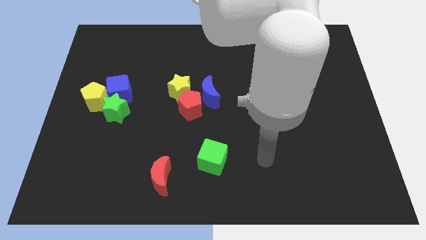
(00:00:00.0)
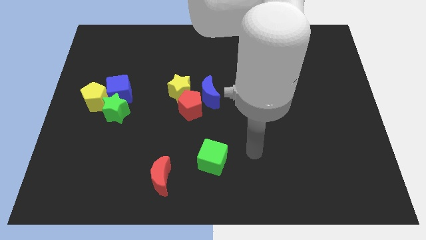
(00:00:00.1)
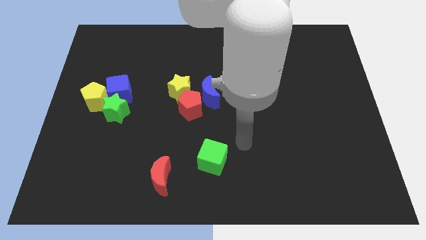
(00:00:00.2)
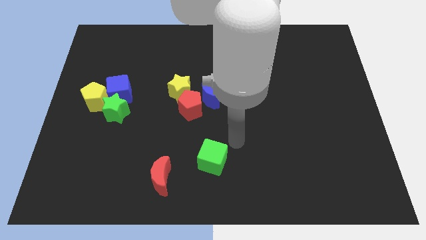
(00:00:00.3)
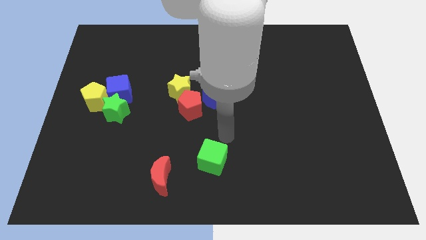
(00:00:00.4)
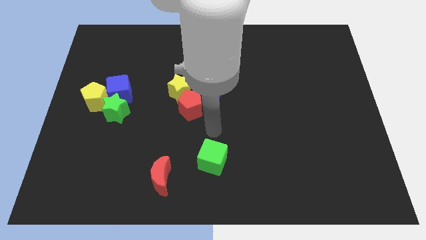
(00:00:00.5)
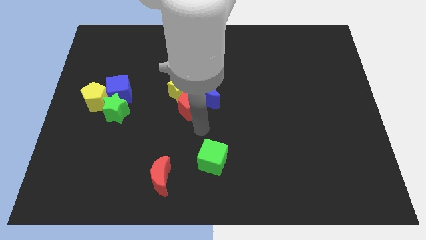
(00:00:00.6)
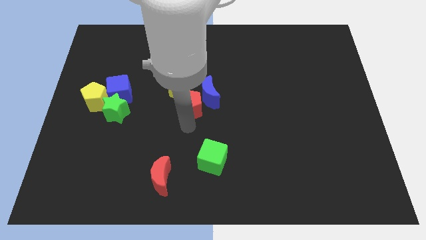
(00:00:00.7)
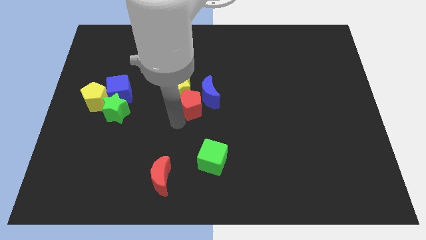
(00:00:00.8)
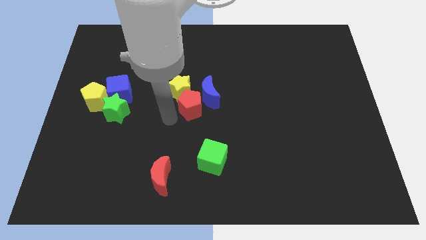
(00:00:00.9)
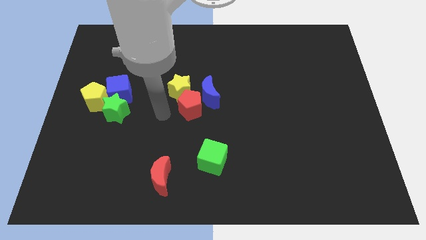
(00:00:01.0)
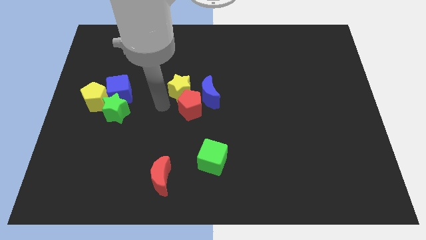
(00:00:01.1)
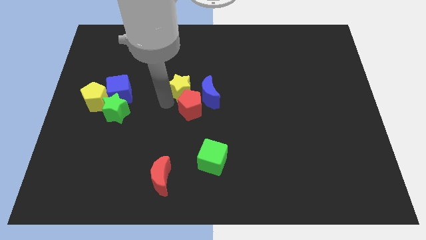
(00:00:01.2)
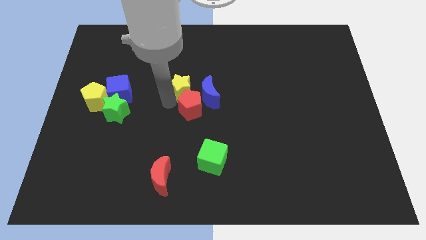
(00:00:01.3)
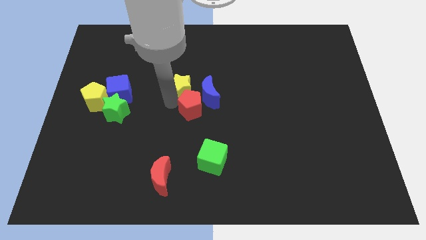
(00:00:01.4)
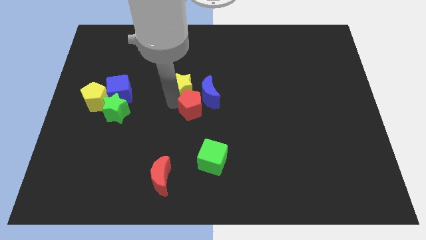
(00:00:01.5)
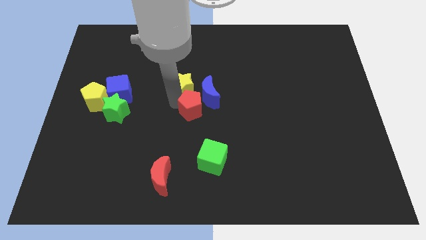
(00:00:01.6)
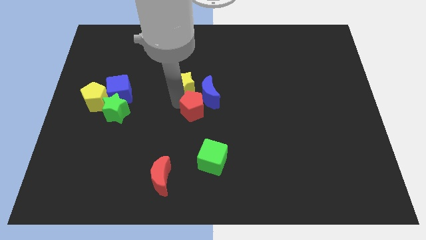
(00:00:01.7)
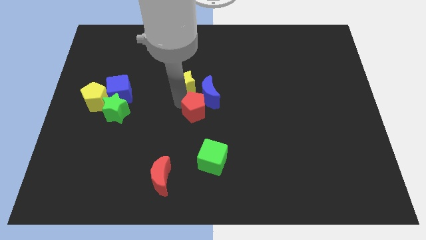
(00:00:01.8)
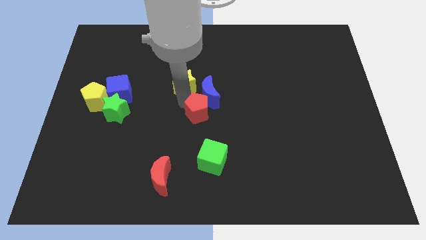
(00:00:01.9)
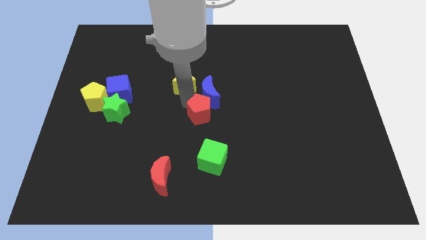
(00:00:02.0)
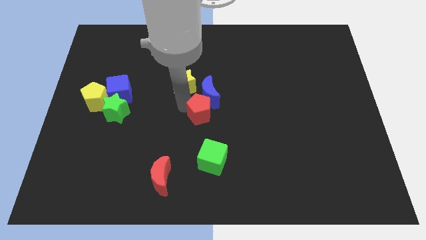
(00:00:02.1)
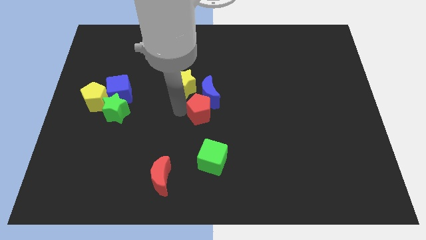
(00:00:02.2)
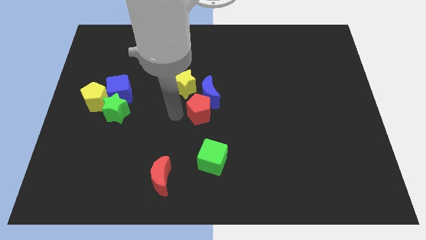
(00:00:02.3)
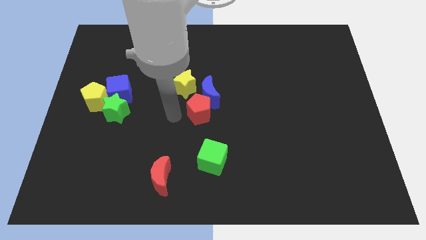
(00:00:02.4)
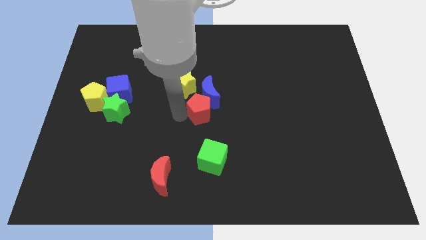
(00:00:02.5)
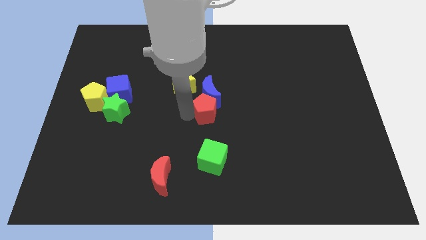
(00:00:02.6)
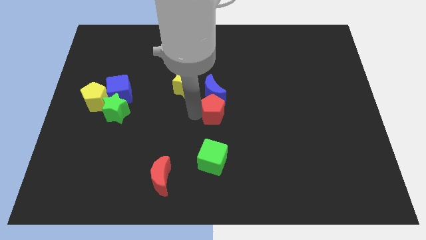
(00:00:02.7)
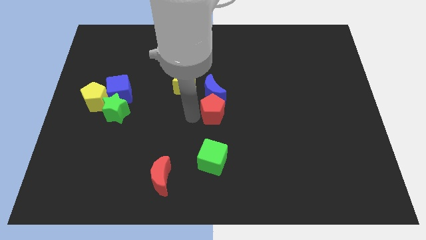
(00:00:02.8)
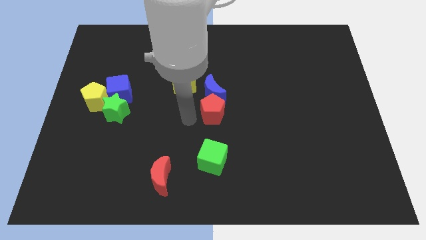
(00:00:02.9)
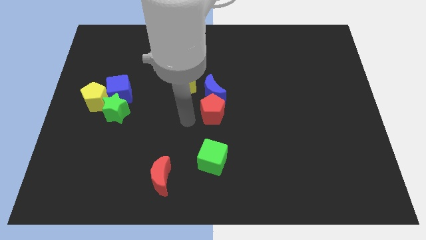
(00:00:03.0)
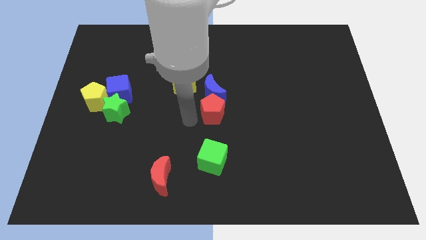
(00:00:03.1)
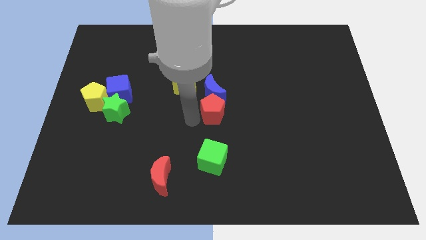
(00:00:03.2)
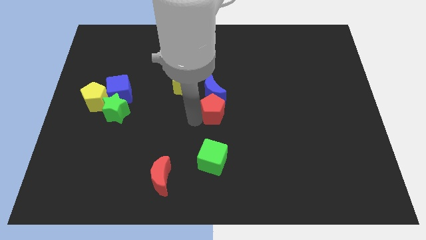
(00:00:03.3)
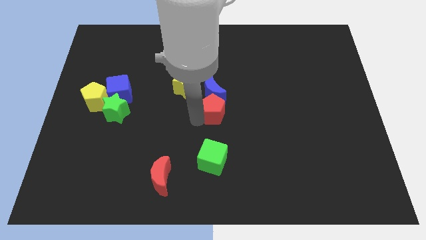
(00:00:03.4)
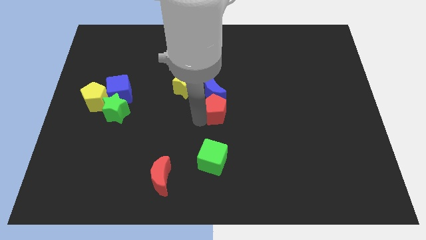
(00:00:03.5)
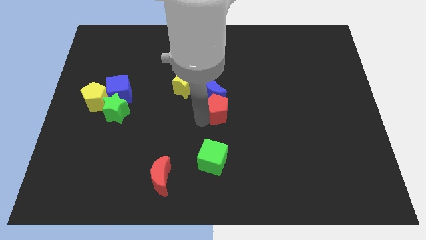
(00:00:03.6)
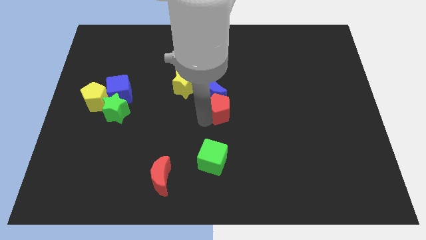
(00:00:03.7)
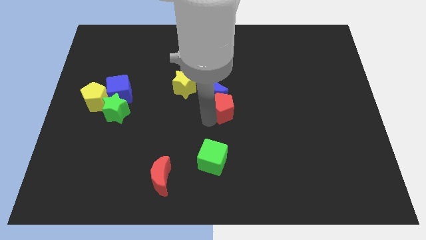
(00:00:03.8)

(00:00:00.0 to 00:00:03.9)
slightly slide the red pentagon to the right

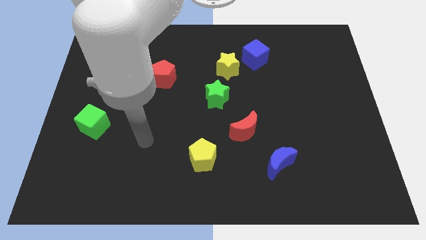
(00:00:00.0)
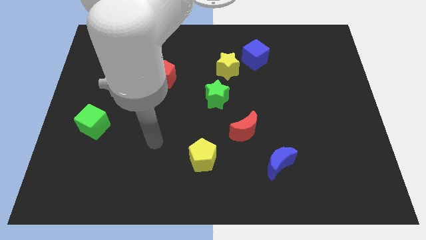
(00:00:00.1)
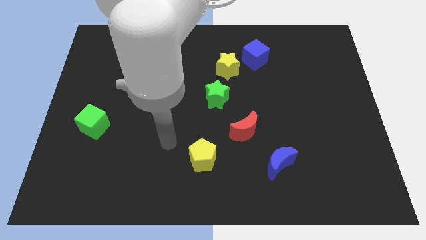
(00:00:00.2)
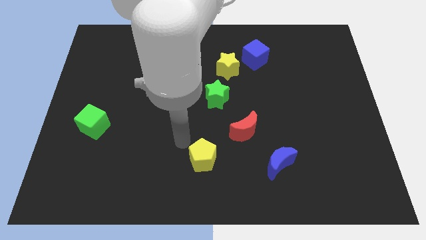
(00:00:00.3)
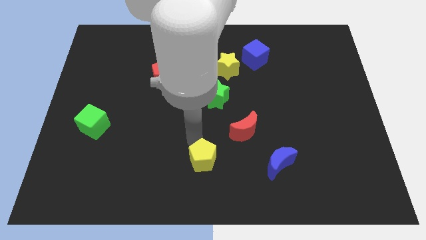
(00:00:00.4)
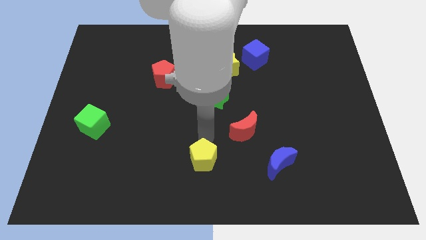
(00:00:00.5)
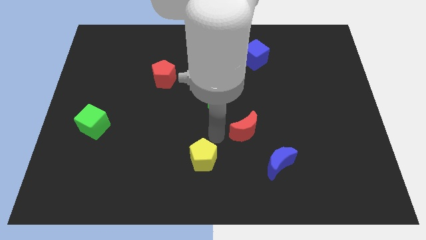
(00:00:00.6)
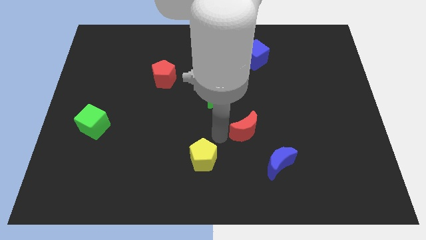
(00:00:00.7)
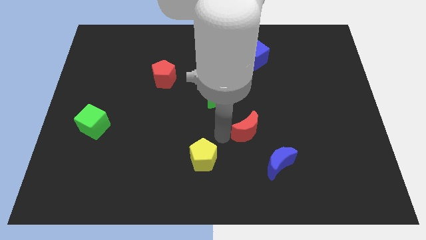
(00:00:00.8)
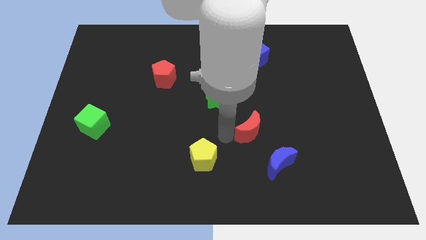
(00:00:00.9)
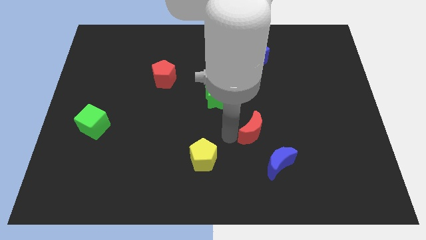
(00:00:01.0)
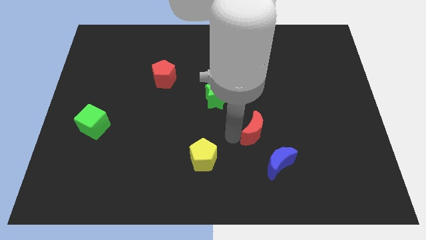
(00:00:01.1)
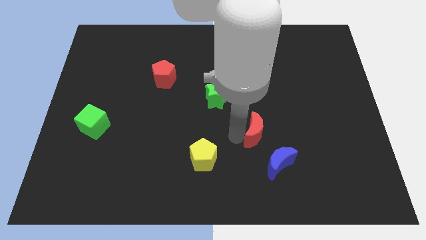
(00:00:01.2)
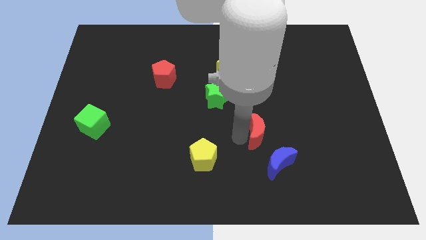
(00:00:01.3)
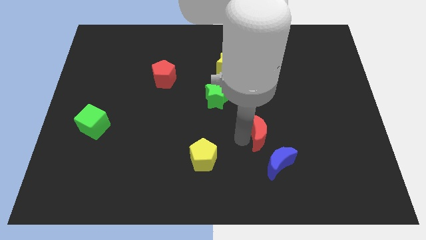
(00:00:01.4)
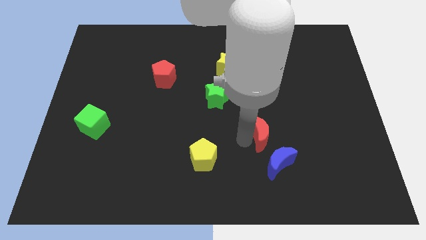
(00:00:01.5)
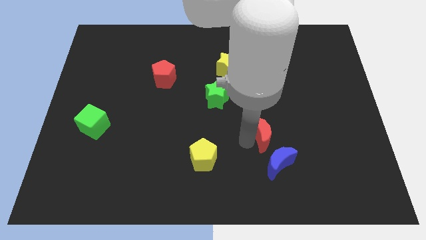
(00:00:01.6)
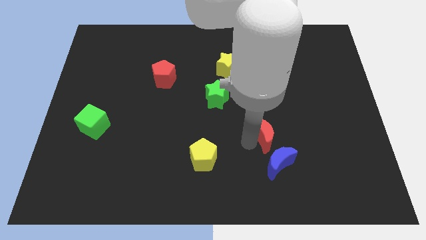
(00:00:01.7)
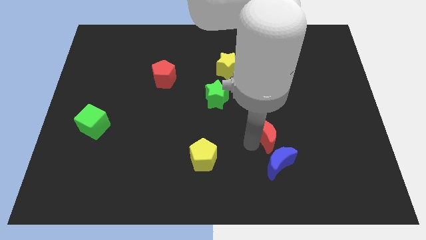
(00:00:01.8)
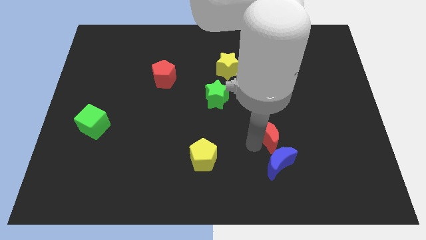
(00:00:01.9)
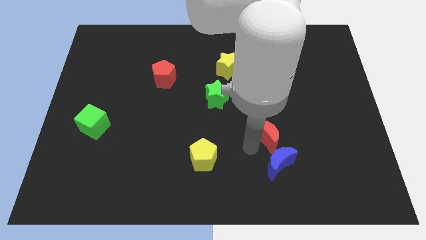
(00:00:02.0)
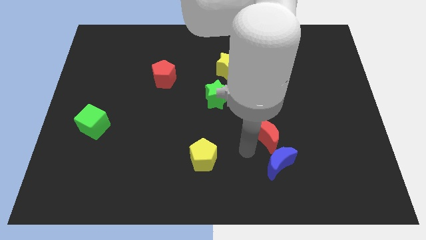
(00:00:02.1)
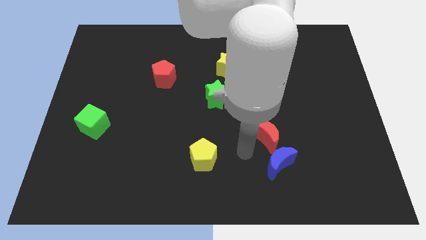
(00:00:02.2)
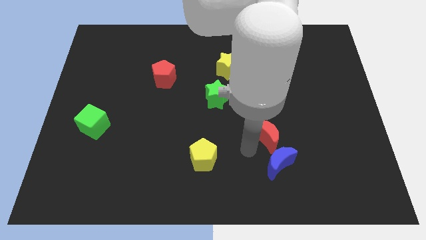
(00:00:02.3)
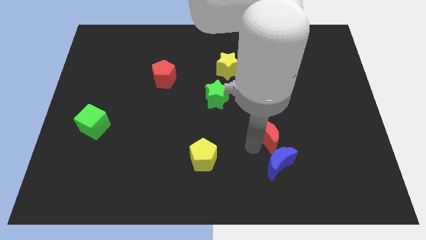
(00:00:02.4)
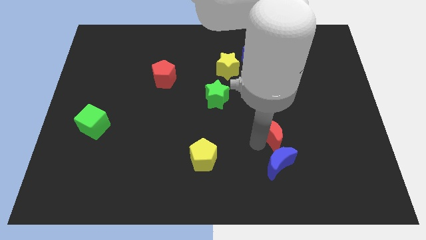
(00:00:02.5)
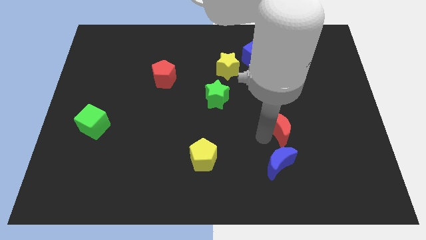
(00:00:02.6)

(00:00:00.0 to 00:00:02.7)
slightly move the red moon right

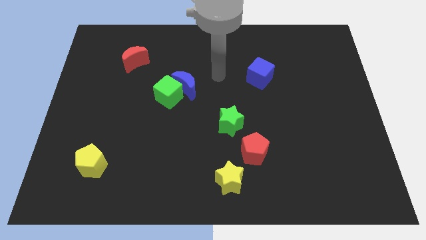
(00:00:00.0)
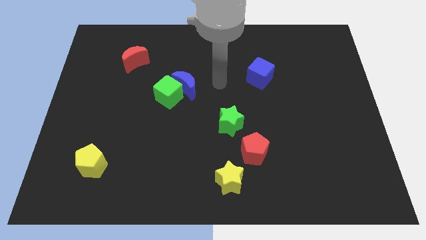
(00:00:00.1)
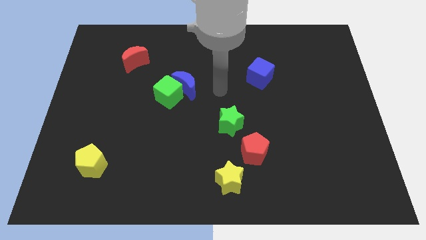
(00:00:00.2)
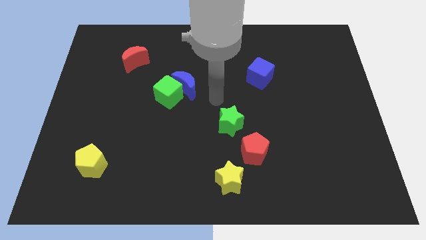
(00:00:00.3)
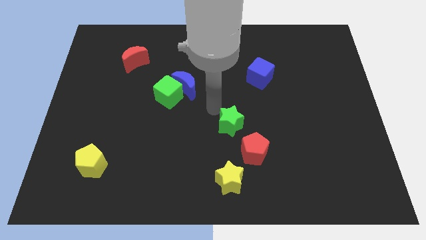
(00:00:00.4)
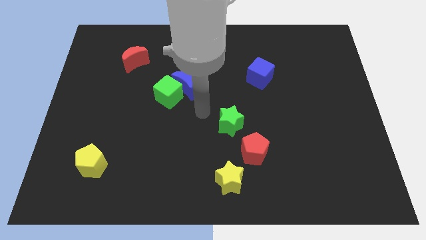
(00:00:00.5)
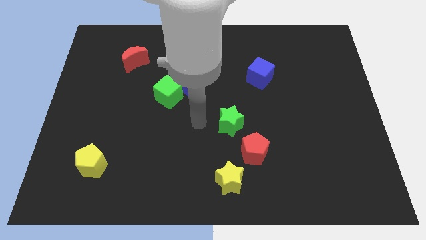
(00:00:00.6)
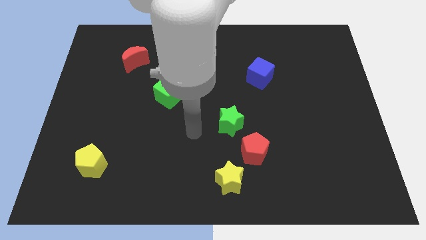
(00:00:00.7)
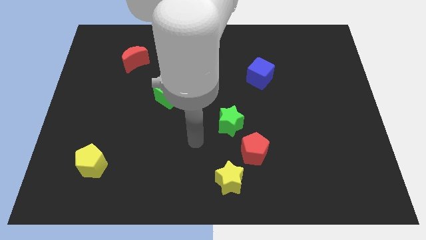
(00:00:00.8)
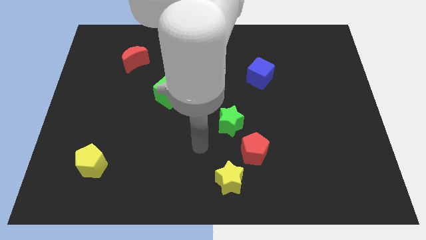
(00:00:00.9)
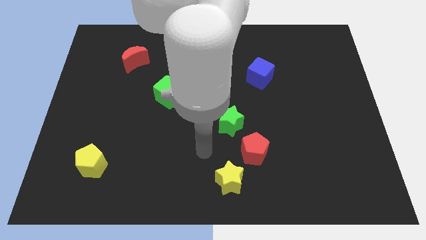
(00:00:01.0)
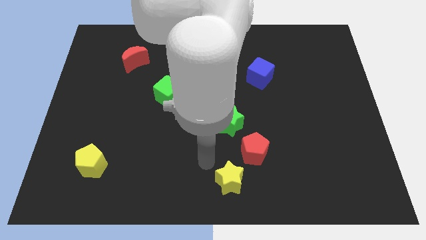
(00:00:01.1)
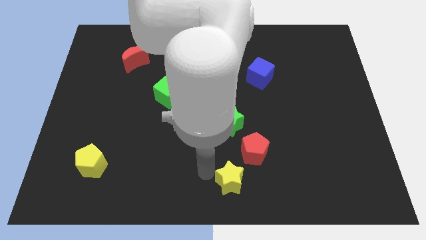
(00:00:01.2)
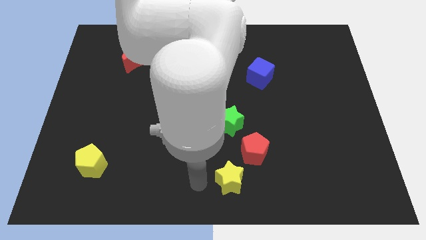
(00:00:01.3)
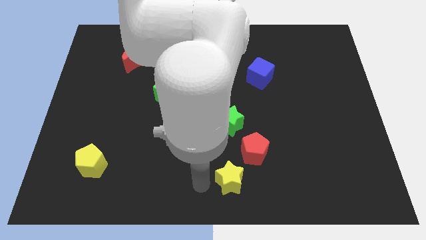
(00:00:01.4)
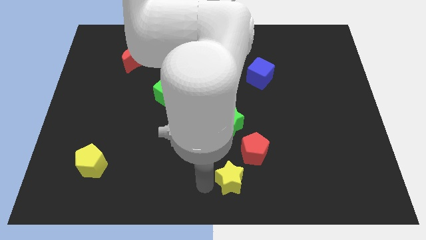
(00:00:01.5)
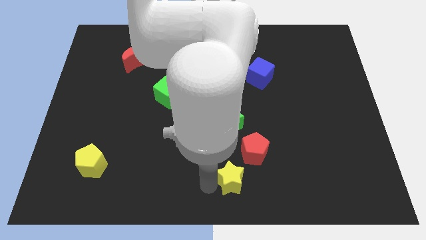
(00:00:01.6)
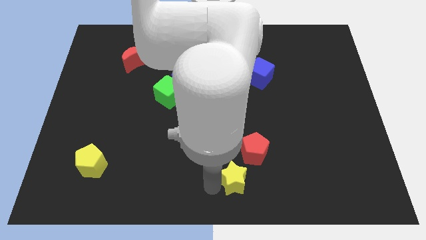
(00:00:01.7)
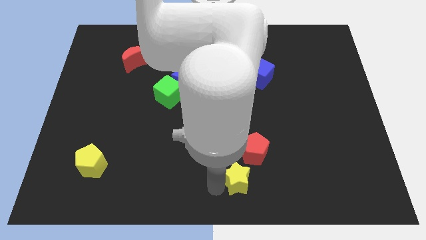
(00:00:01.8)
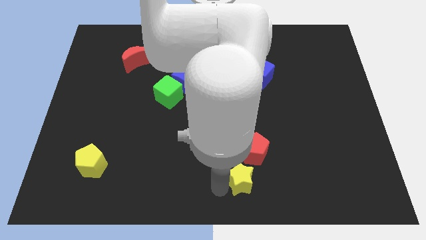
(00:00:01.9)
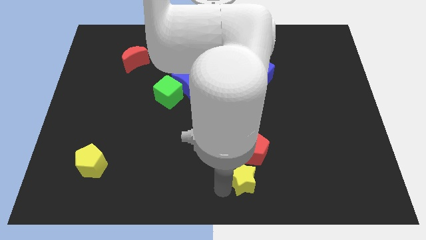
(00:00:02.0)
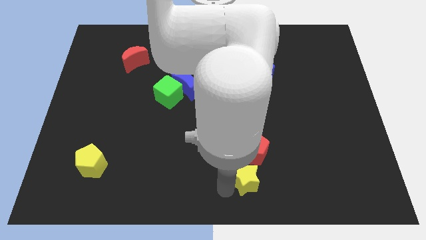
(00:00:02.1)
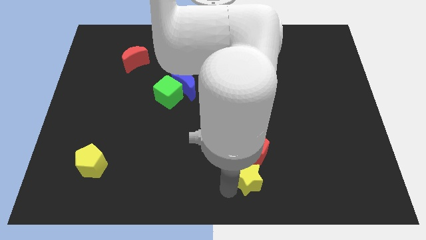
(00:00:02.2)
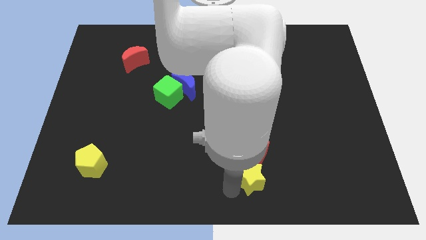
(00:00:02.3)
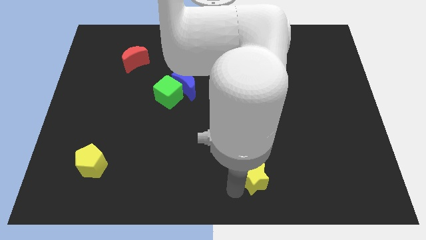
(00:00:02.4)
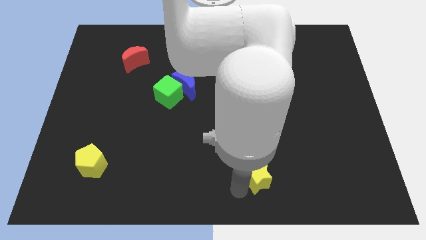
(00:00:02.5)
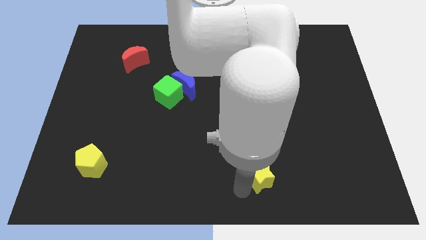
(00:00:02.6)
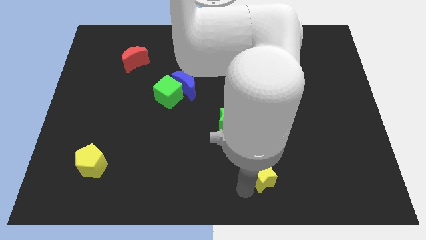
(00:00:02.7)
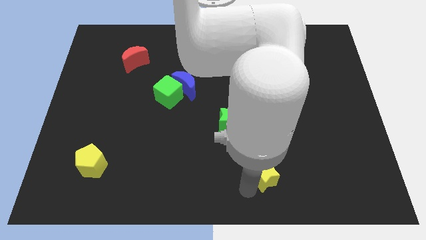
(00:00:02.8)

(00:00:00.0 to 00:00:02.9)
push the yellow star to the right somewhat
